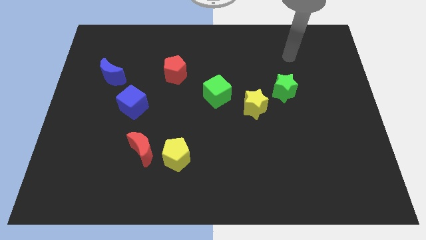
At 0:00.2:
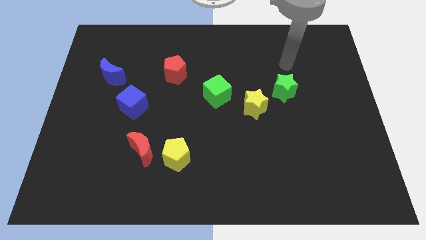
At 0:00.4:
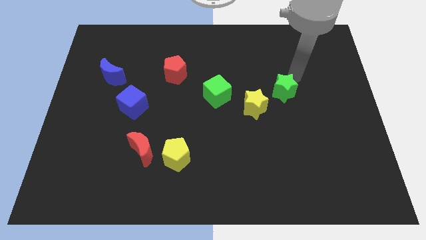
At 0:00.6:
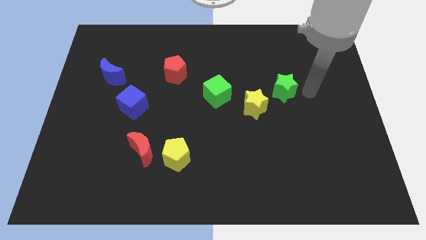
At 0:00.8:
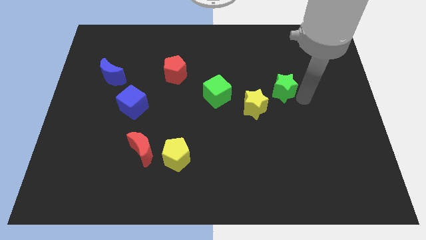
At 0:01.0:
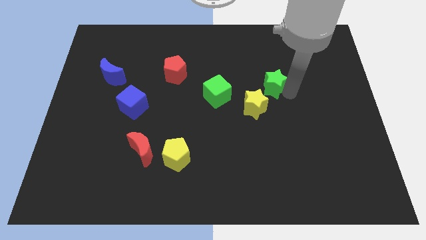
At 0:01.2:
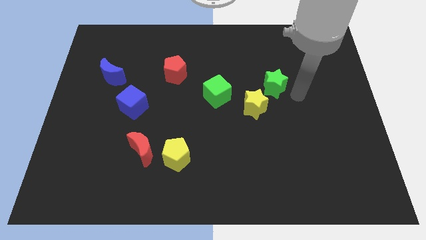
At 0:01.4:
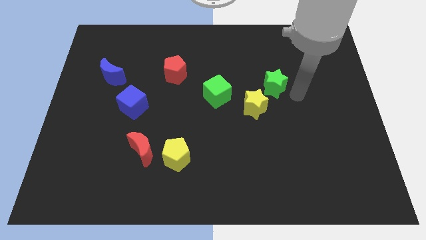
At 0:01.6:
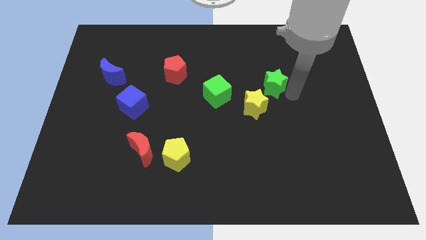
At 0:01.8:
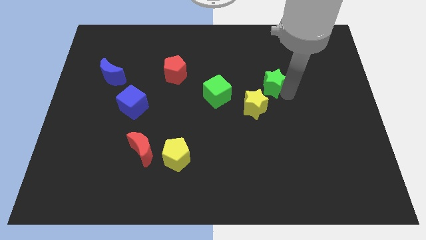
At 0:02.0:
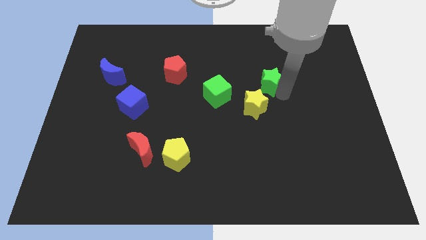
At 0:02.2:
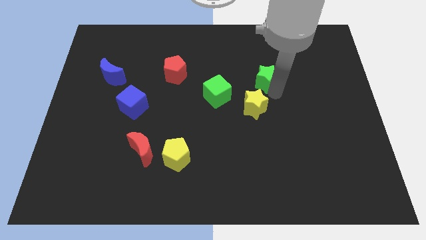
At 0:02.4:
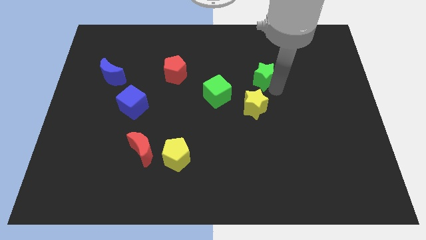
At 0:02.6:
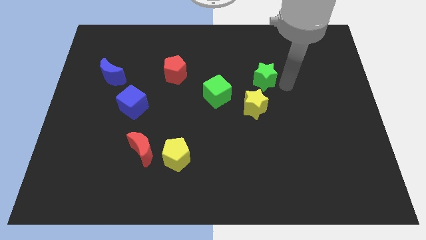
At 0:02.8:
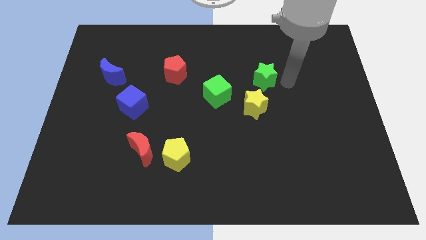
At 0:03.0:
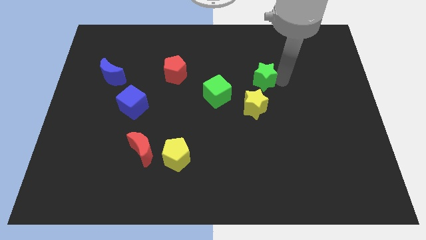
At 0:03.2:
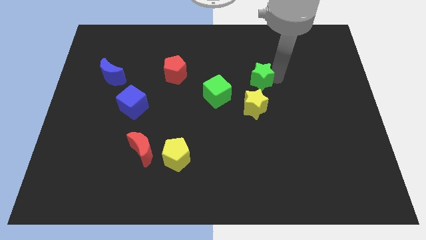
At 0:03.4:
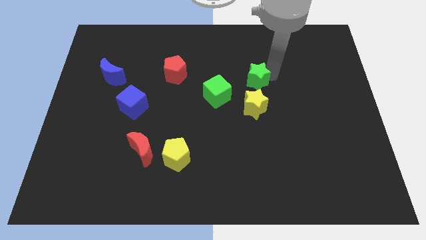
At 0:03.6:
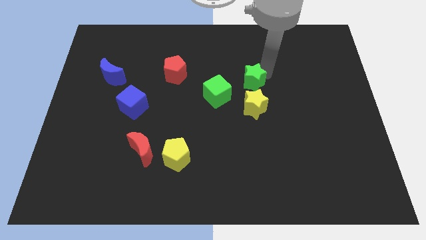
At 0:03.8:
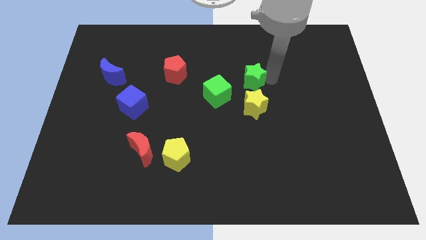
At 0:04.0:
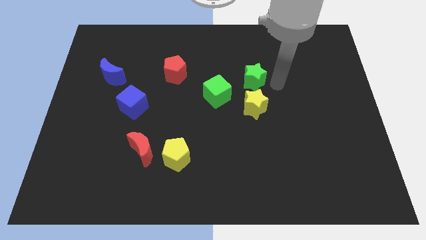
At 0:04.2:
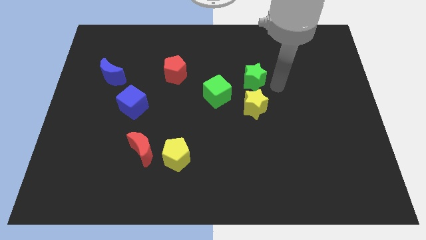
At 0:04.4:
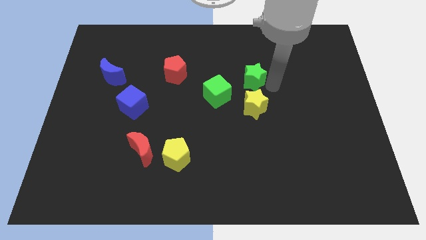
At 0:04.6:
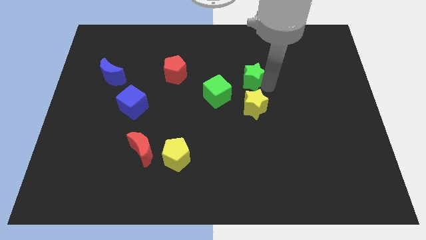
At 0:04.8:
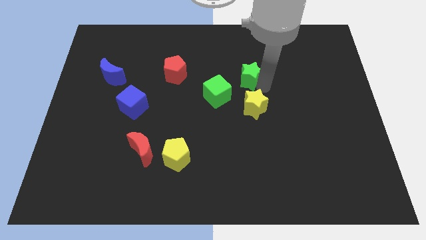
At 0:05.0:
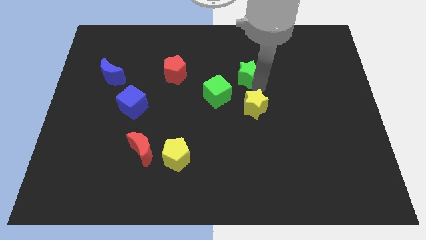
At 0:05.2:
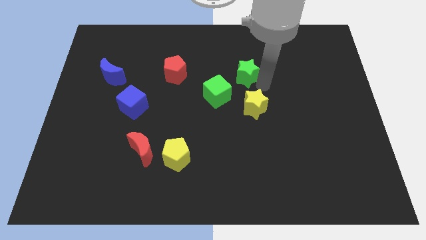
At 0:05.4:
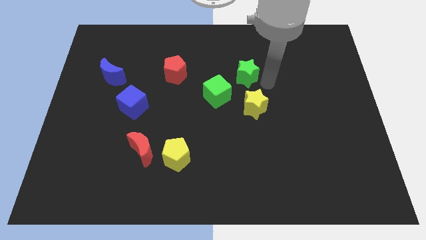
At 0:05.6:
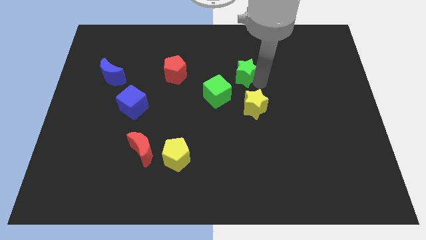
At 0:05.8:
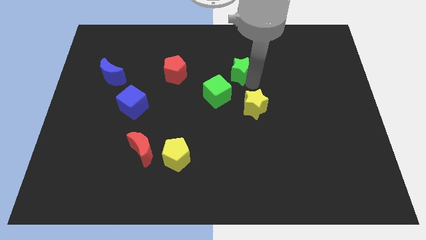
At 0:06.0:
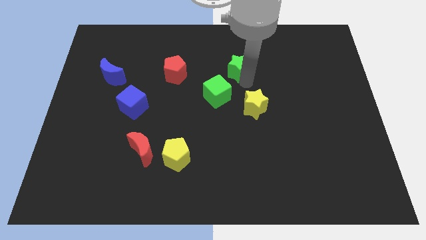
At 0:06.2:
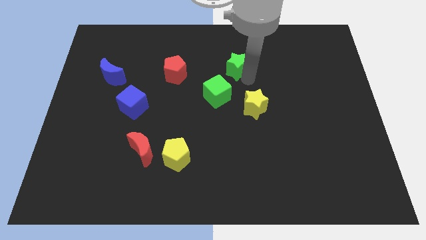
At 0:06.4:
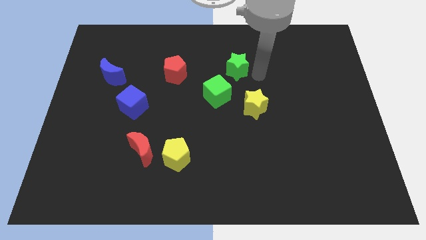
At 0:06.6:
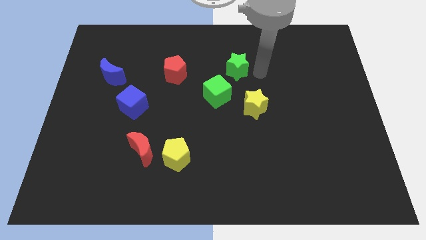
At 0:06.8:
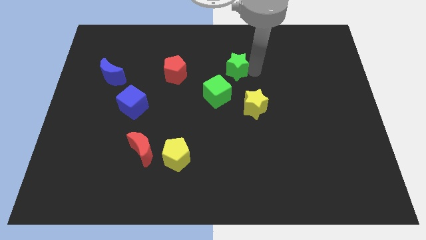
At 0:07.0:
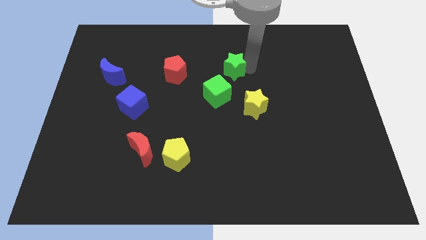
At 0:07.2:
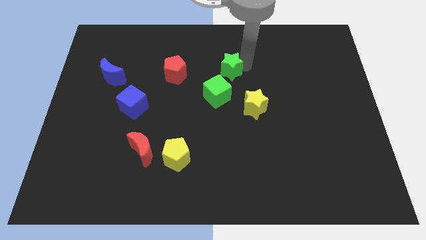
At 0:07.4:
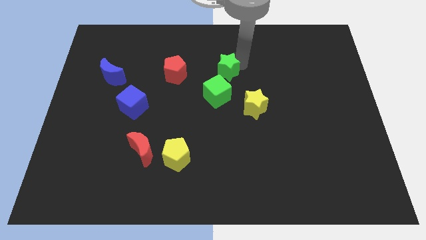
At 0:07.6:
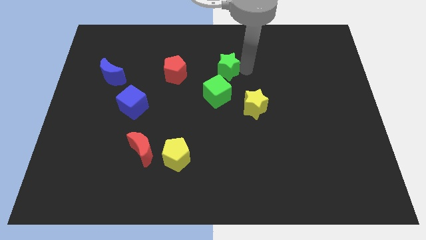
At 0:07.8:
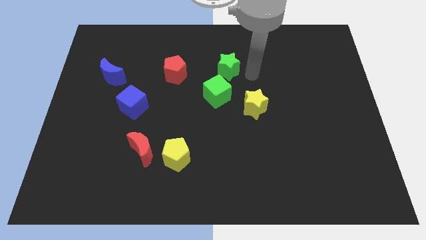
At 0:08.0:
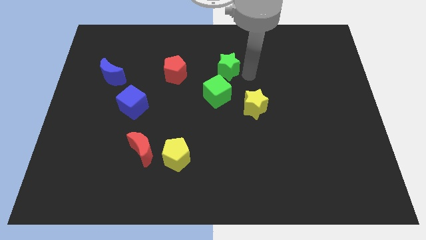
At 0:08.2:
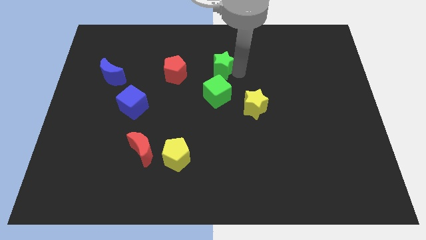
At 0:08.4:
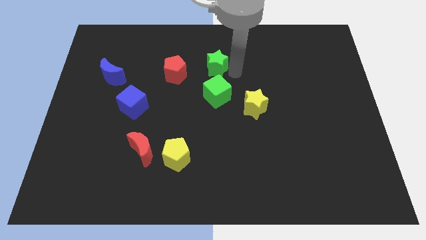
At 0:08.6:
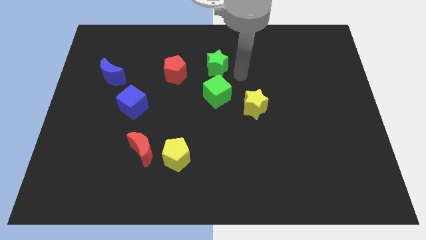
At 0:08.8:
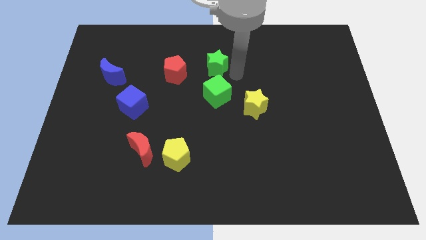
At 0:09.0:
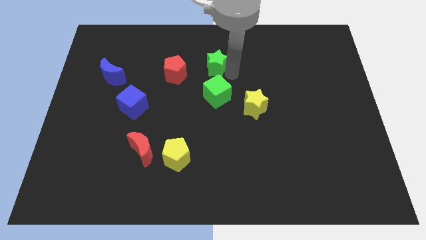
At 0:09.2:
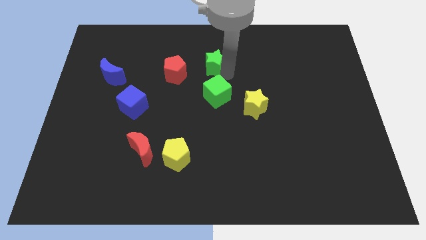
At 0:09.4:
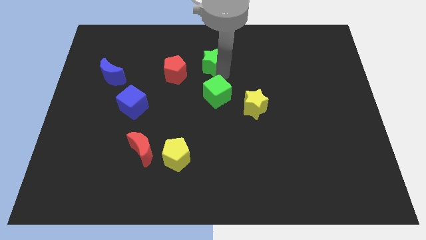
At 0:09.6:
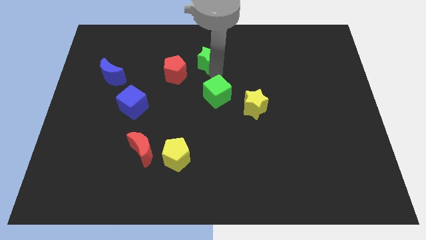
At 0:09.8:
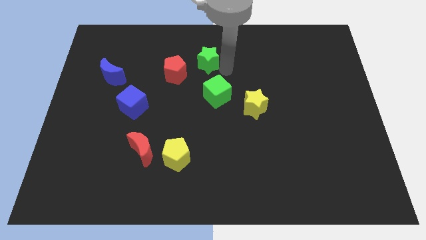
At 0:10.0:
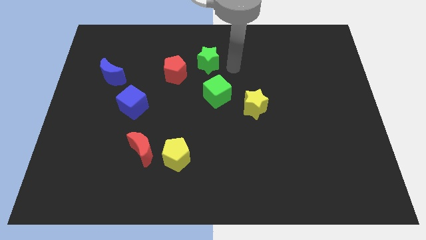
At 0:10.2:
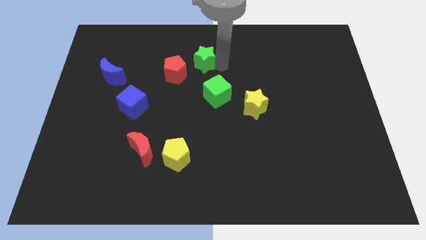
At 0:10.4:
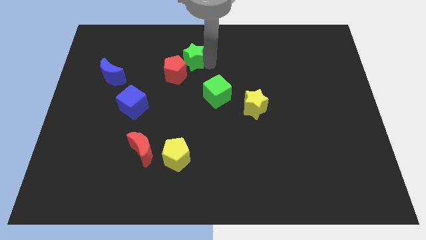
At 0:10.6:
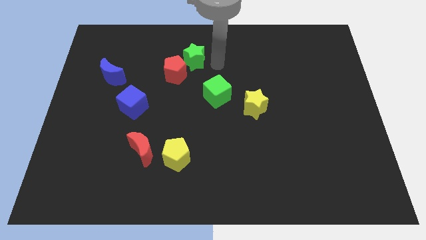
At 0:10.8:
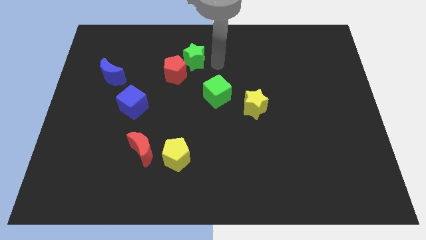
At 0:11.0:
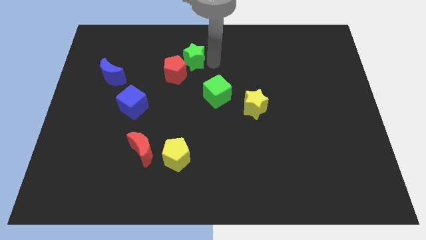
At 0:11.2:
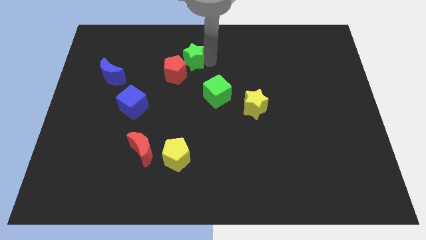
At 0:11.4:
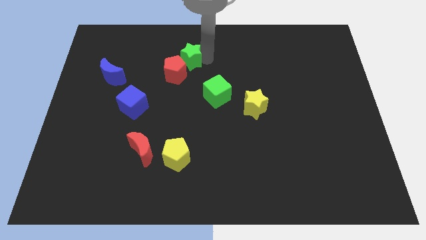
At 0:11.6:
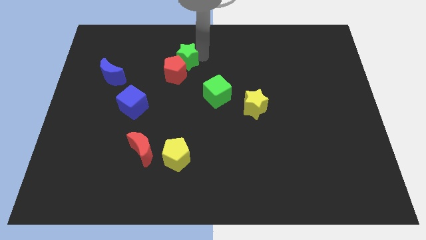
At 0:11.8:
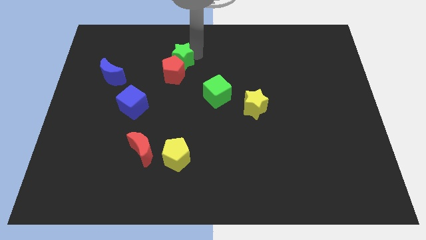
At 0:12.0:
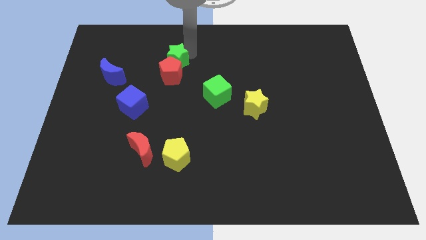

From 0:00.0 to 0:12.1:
move the green star to the top left side of the red pentagon
